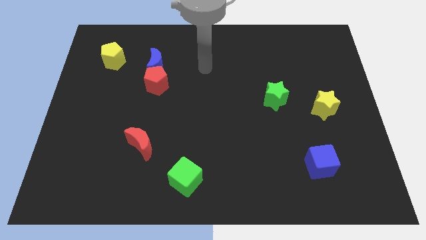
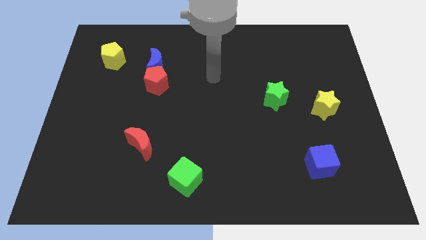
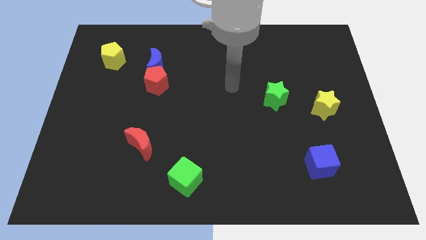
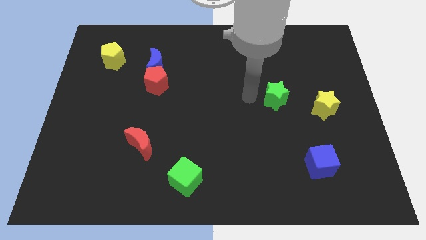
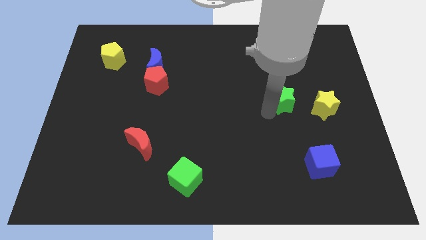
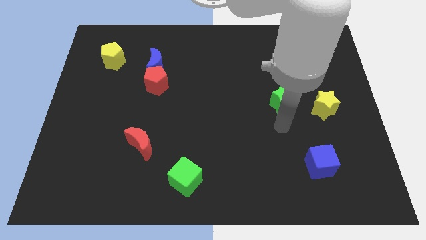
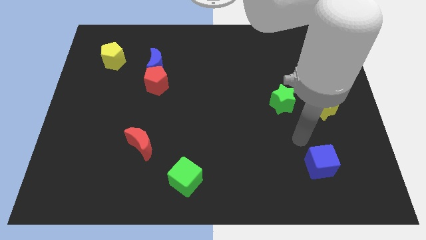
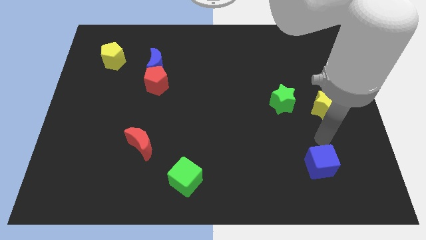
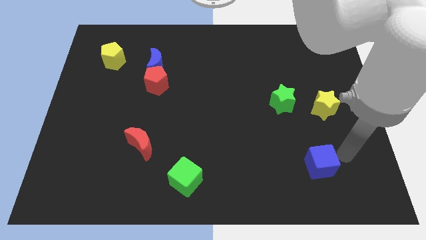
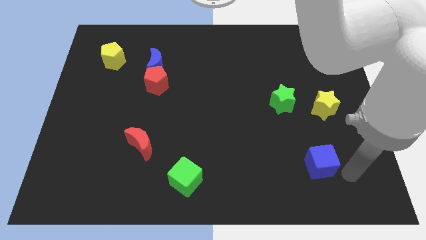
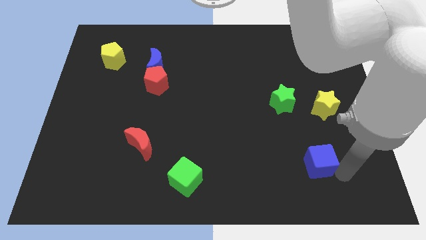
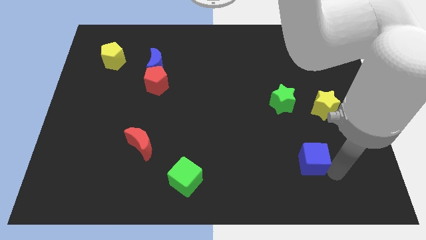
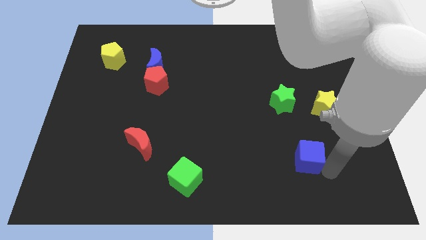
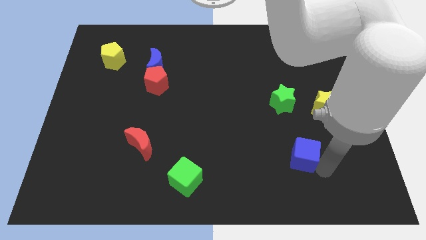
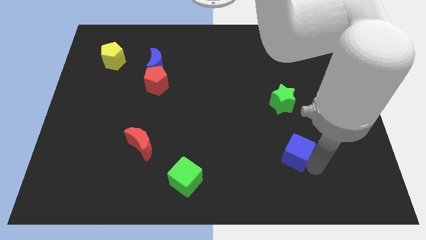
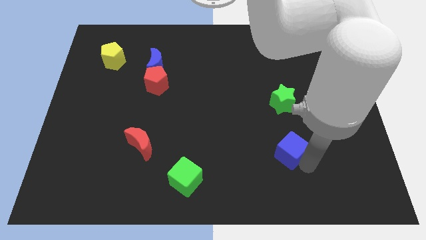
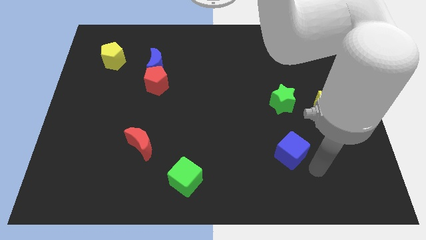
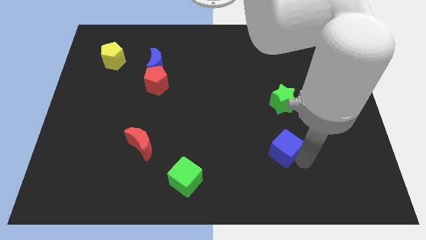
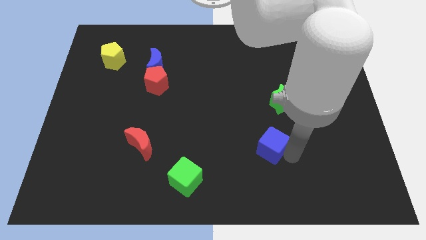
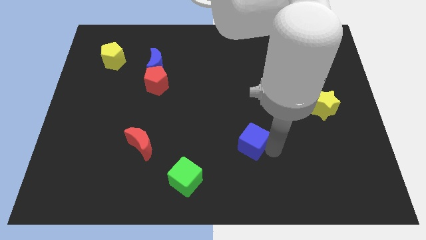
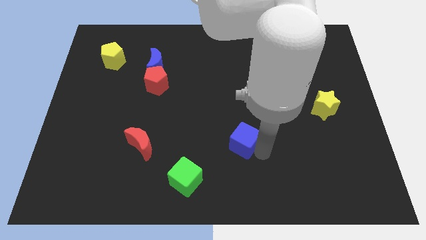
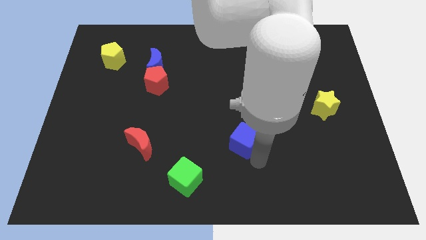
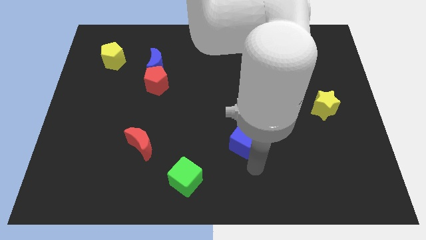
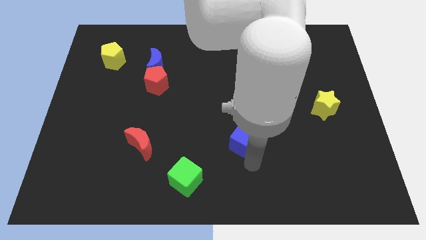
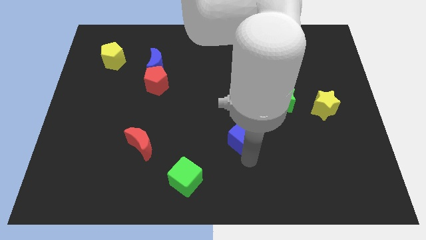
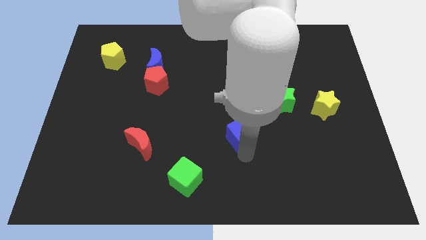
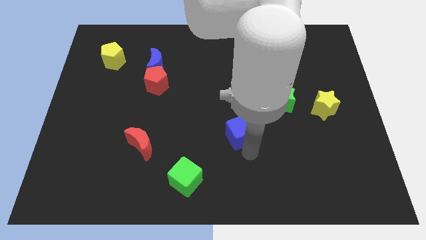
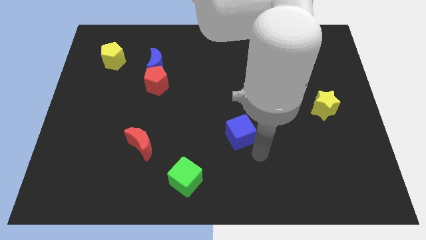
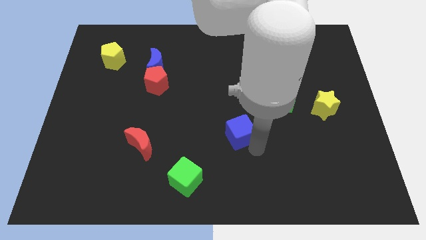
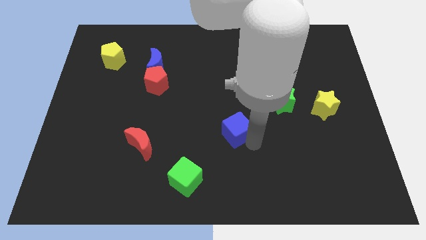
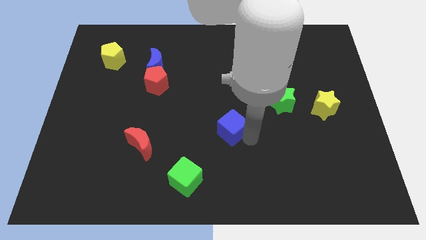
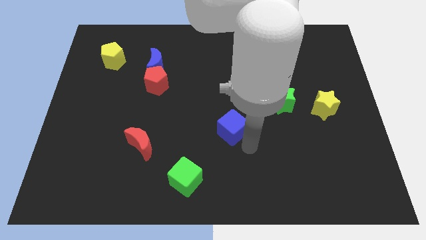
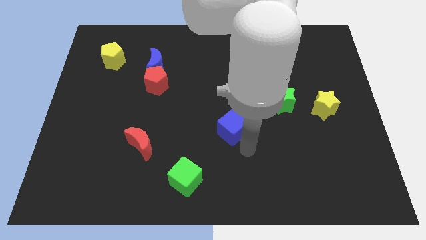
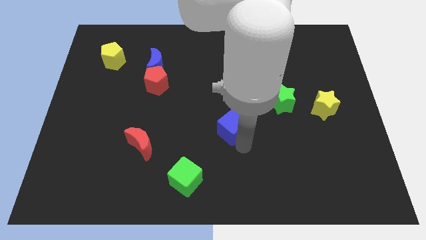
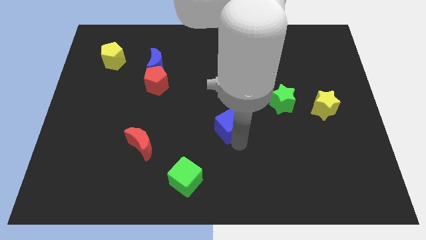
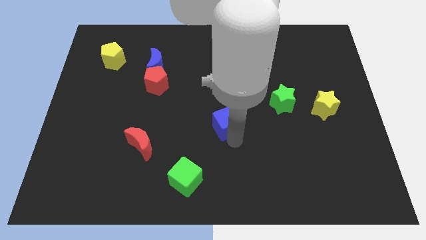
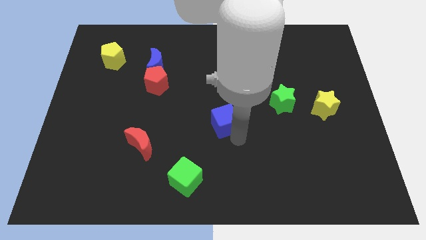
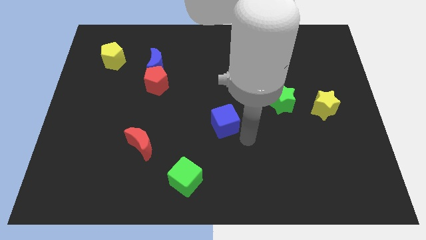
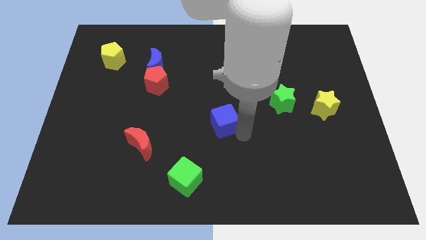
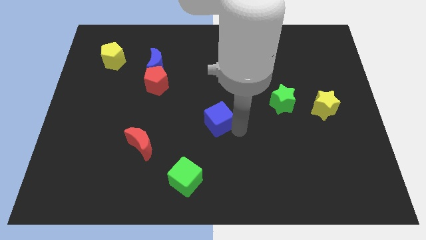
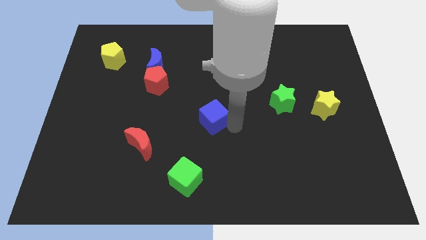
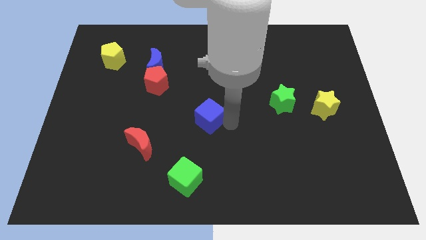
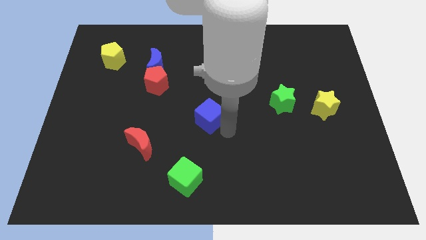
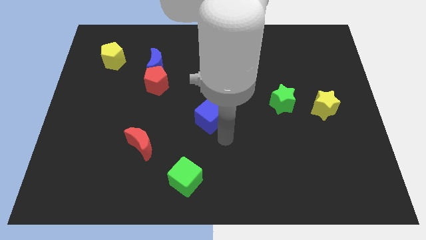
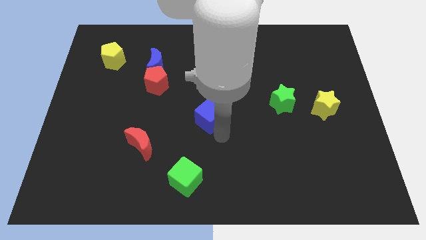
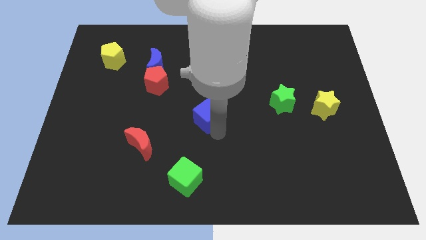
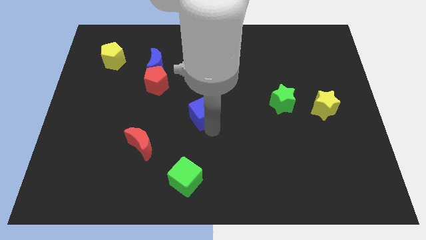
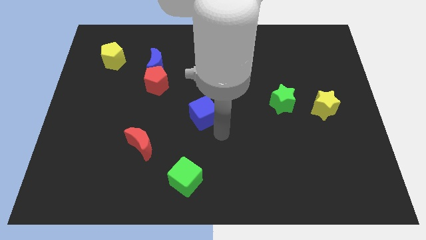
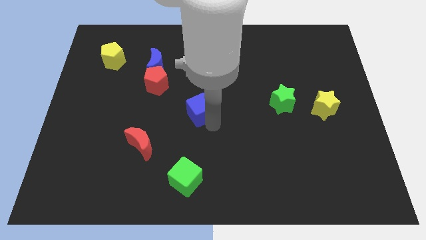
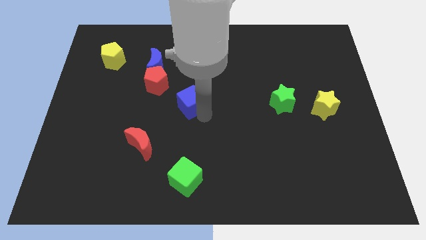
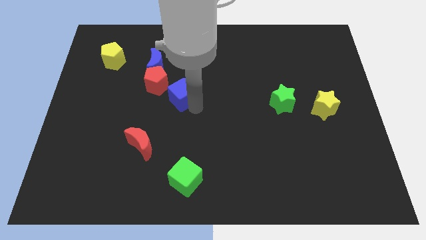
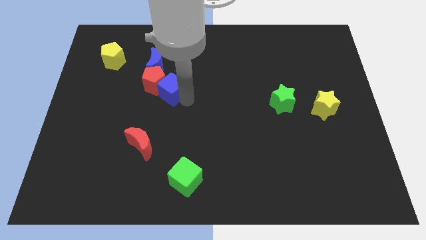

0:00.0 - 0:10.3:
put the blue cube next to the red pentagon

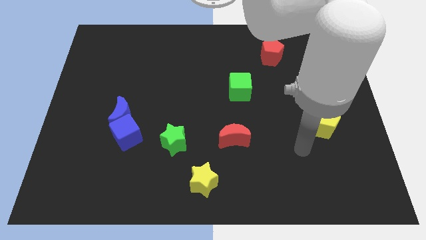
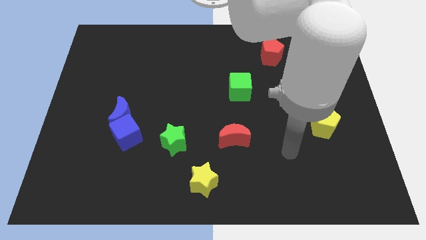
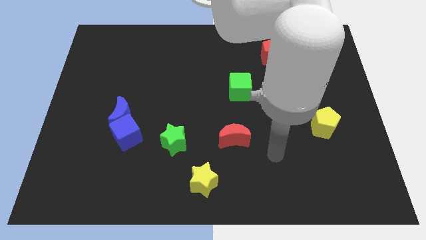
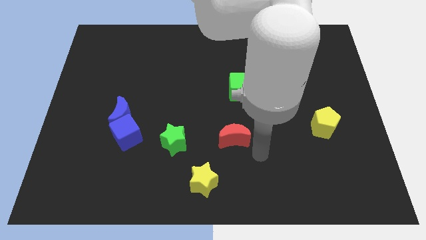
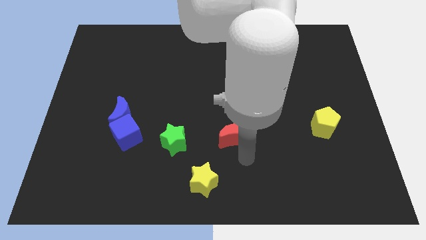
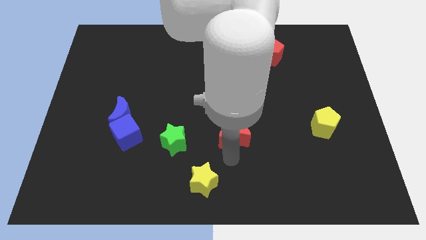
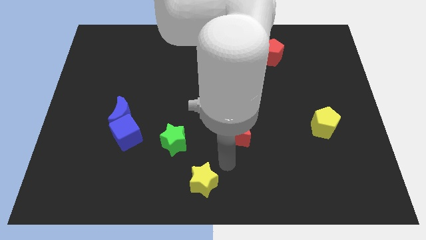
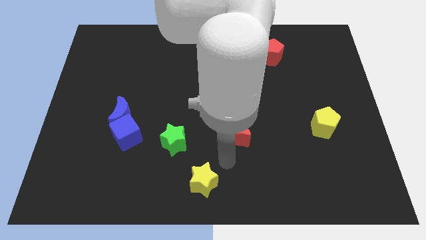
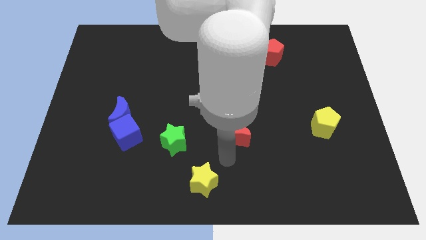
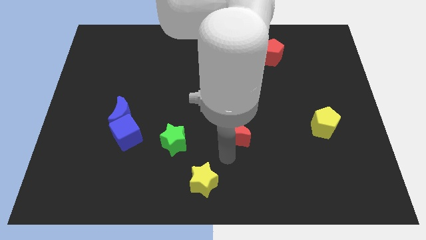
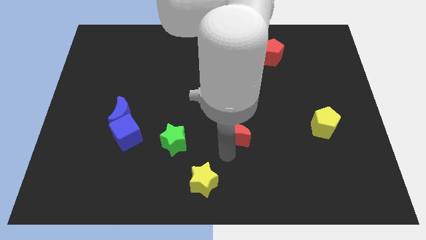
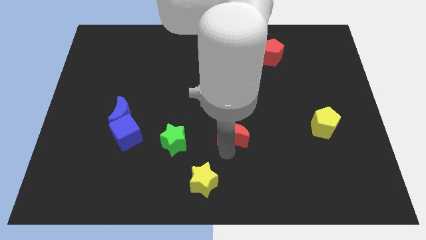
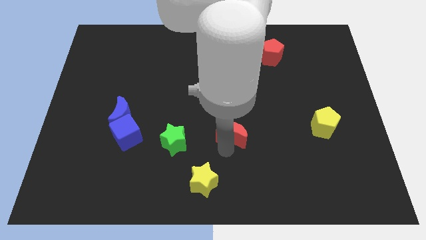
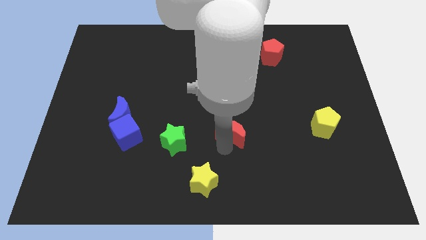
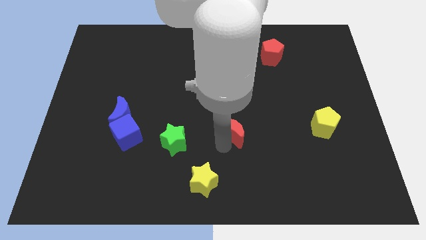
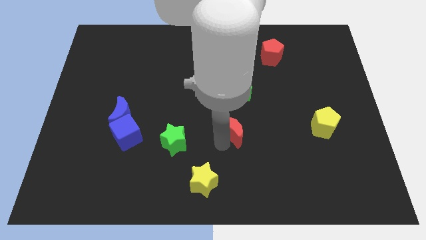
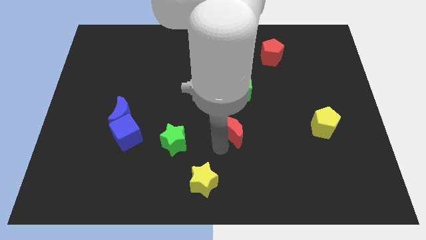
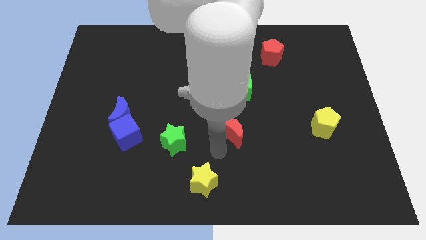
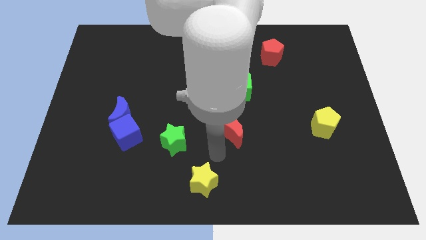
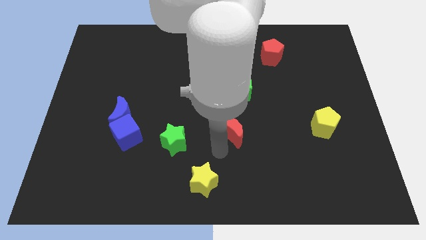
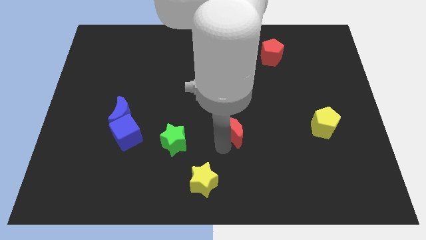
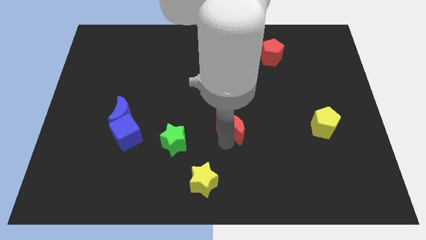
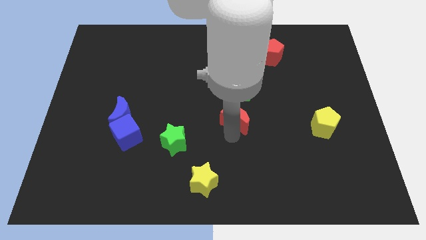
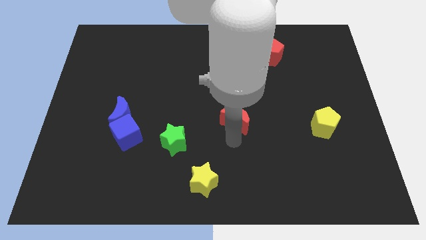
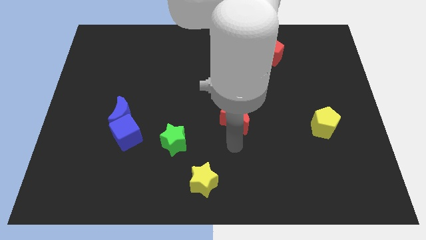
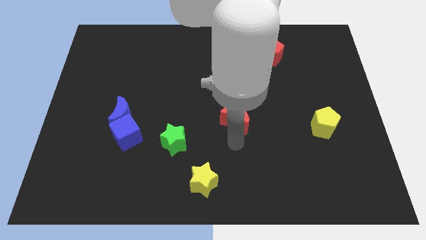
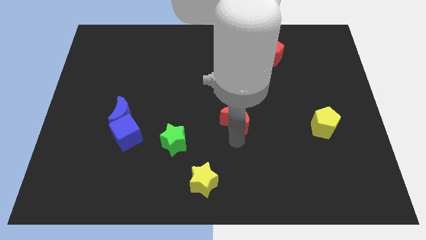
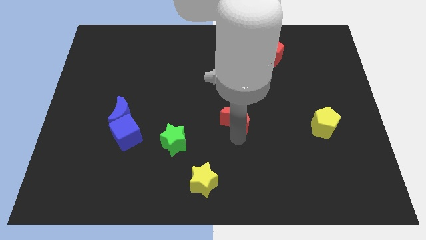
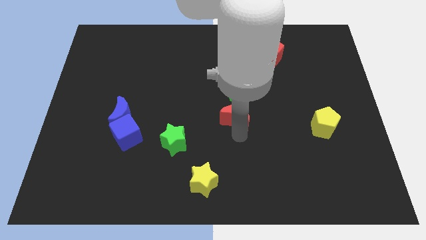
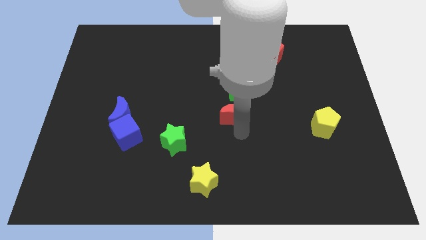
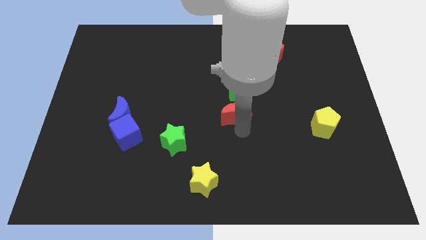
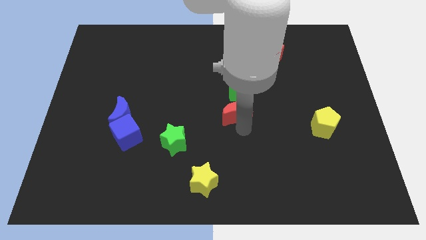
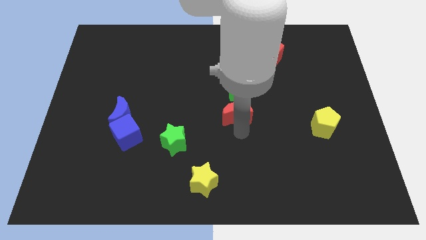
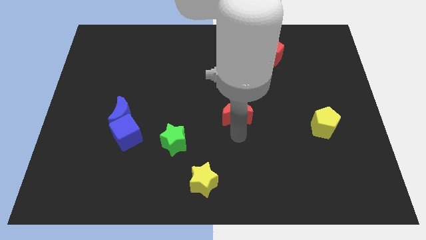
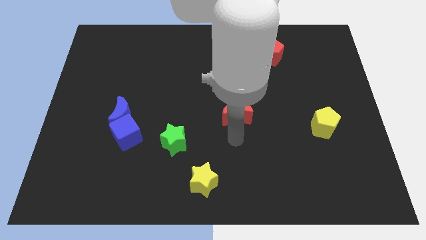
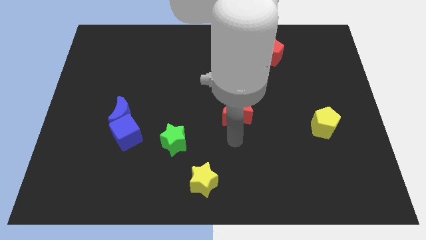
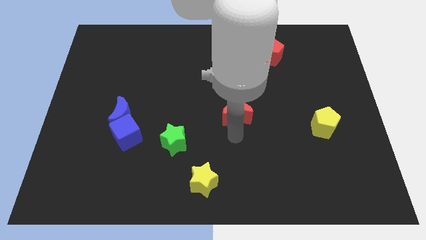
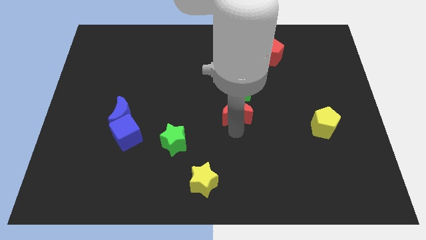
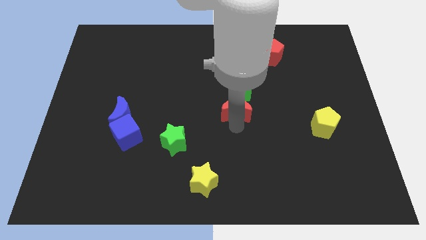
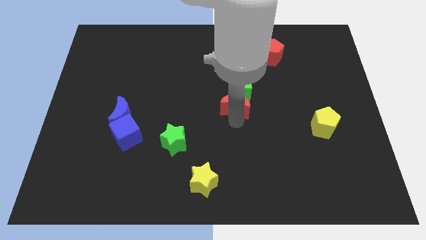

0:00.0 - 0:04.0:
move the red moon towards the green cube
